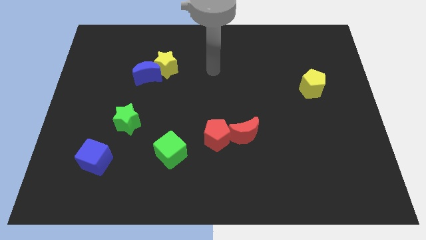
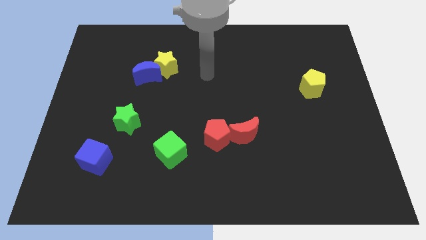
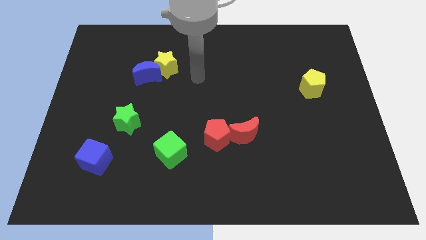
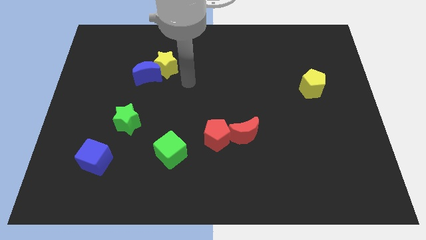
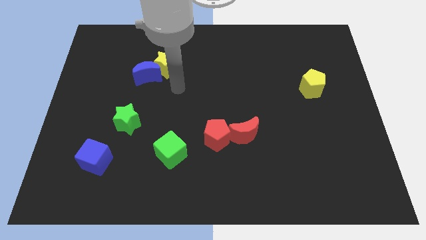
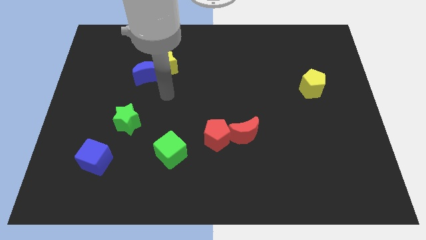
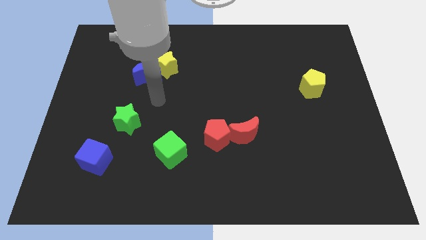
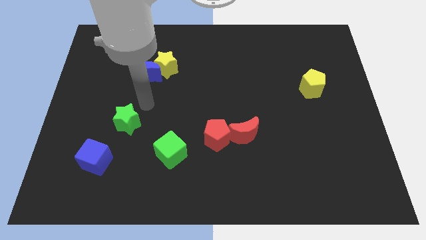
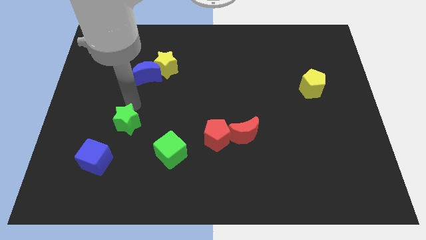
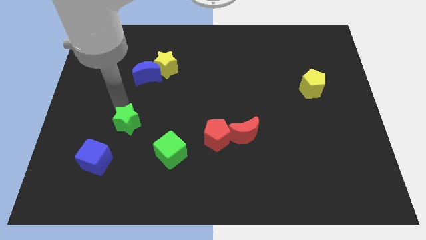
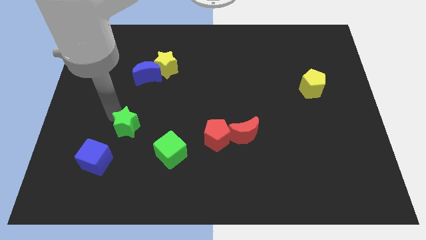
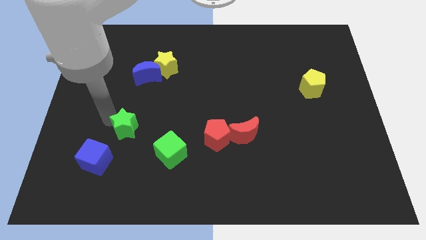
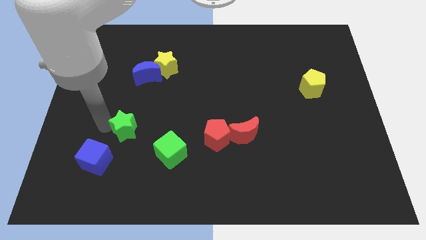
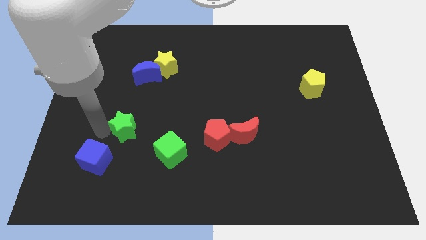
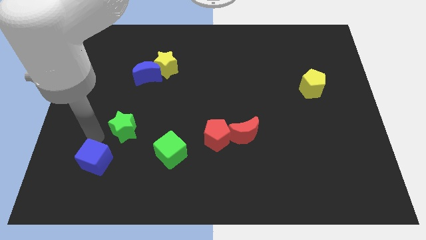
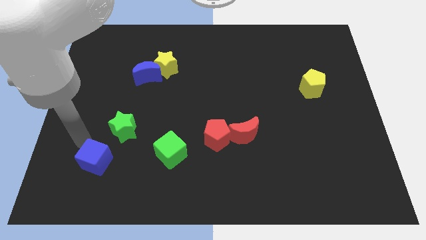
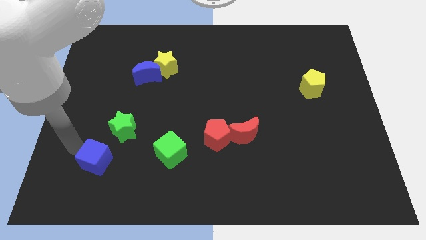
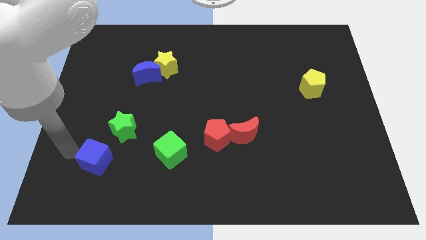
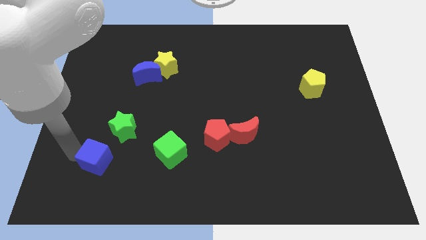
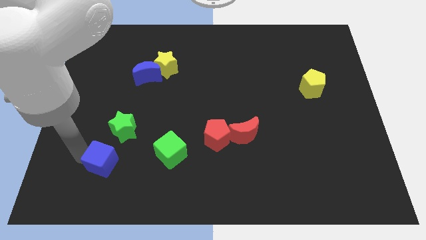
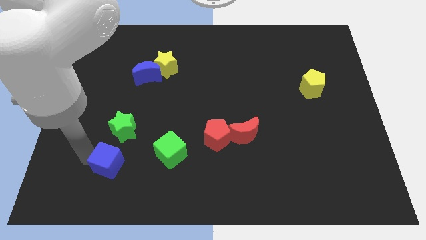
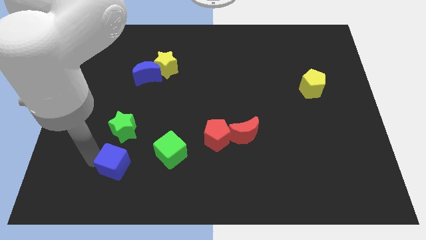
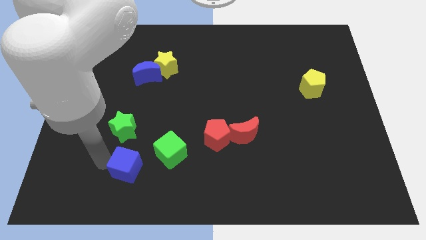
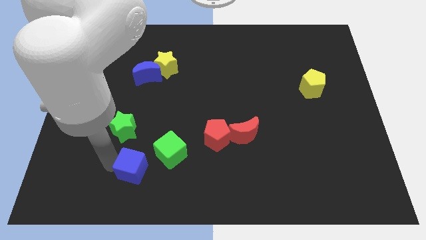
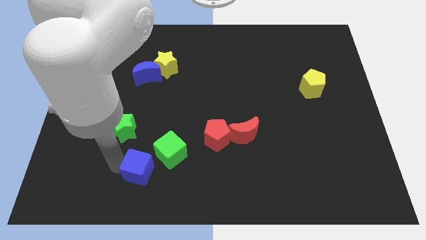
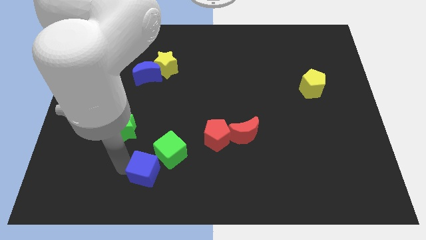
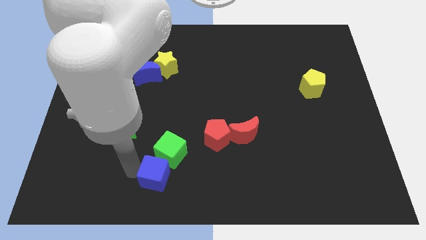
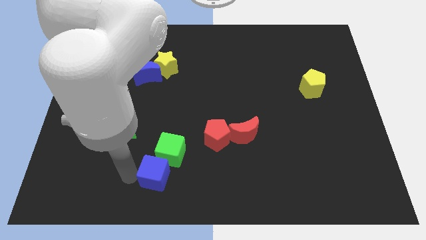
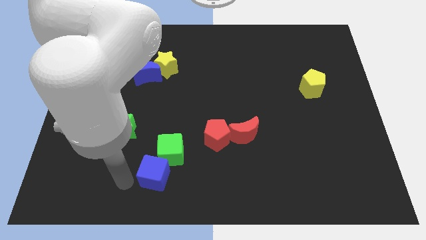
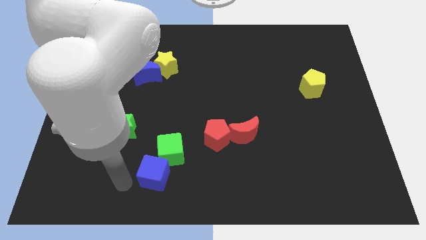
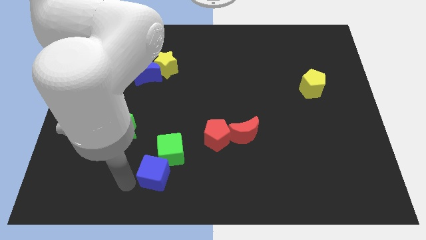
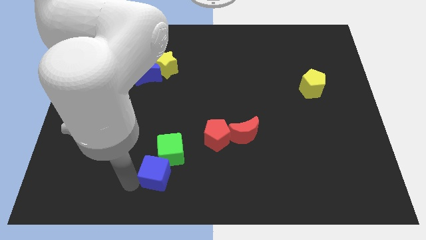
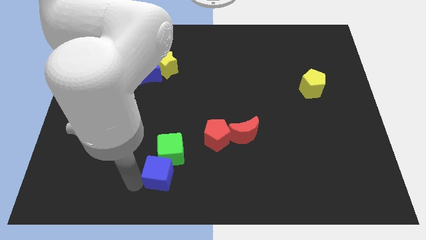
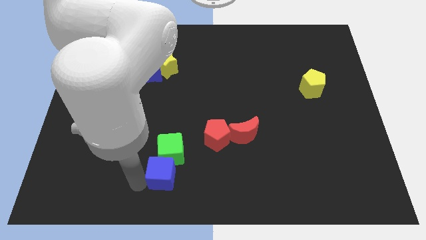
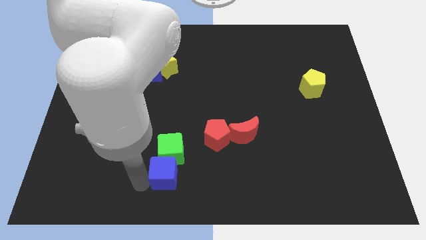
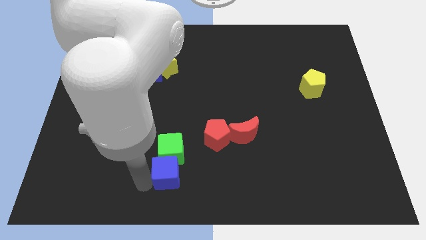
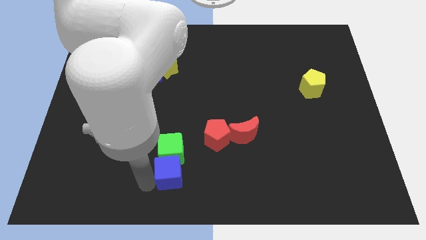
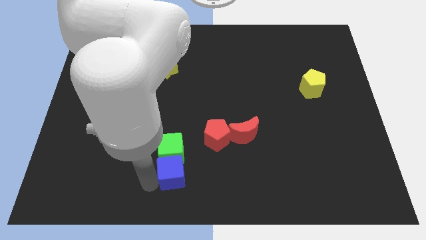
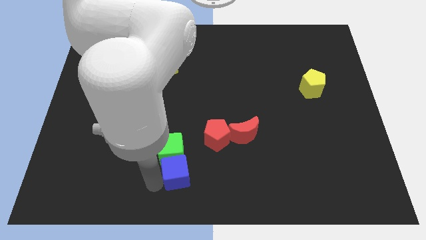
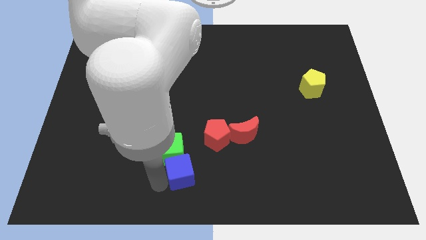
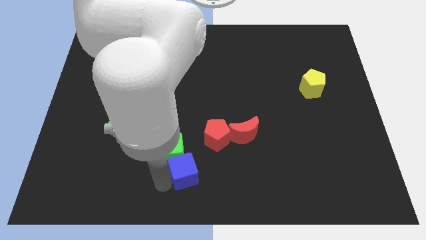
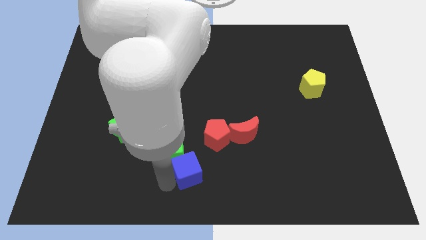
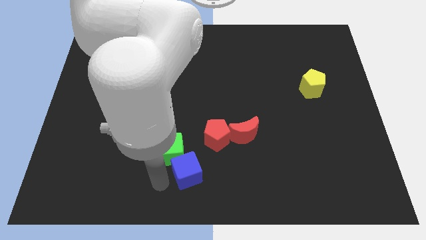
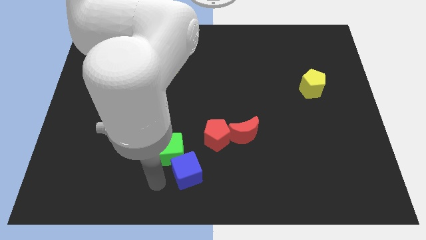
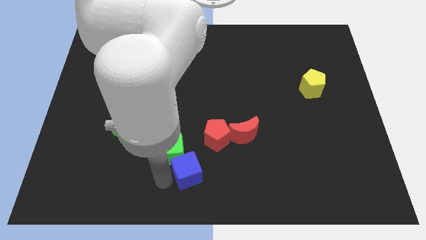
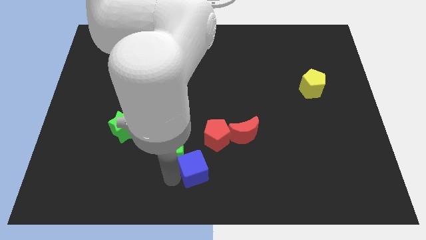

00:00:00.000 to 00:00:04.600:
move the blue cube to the right

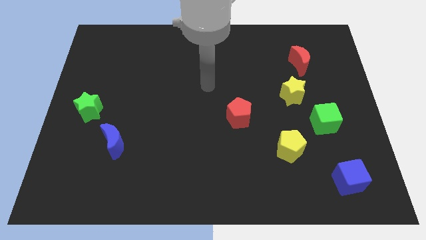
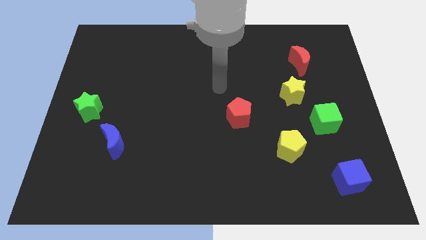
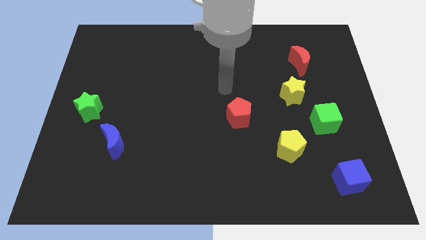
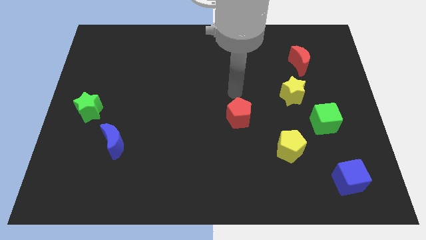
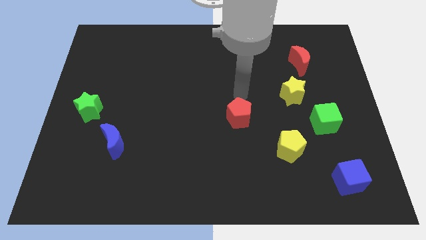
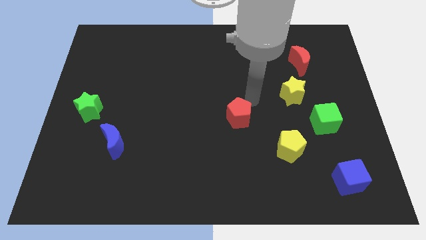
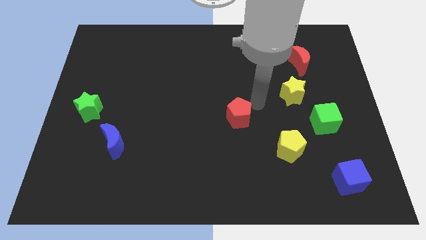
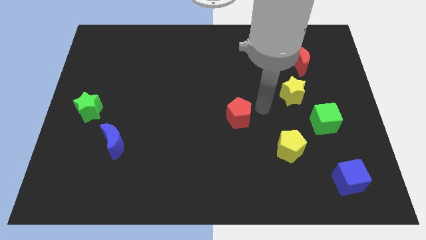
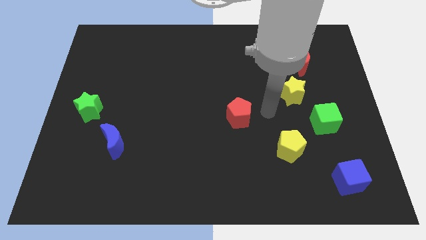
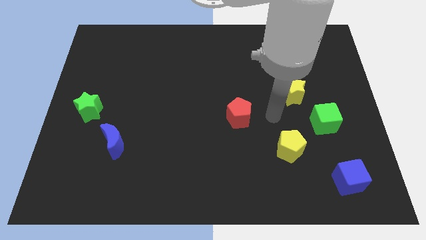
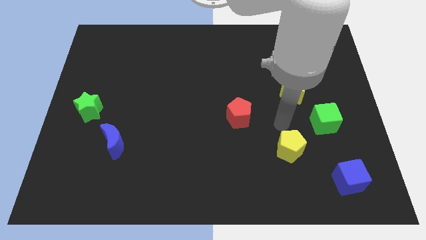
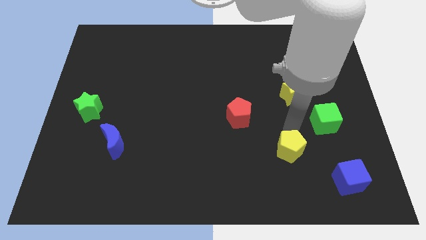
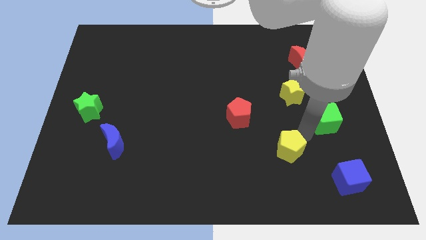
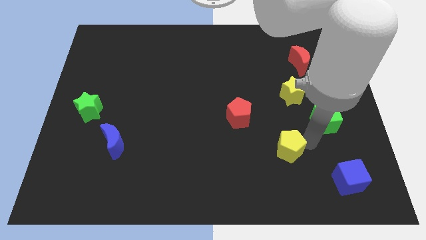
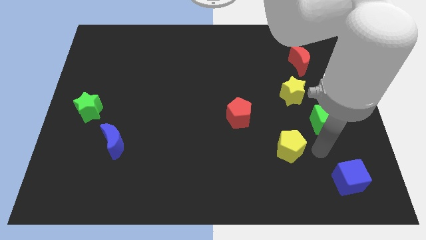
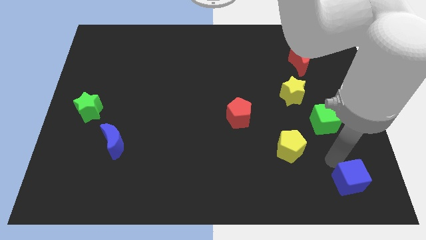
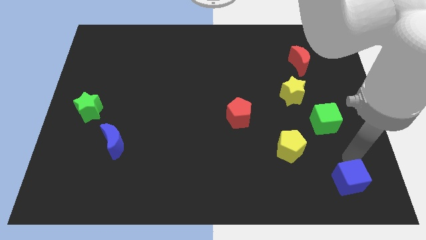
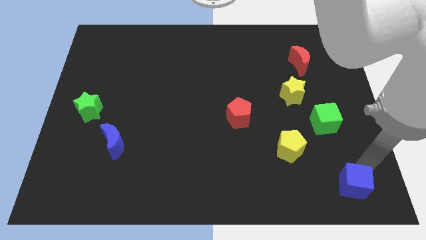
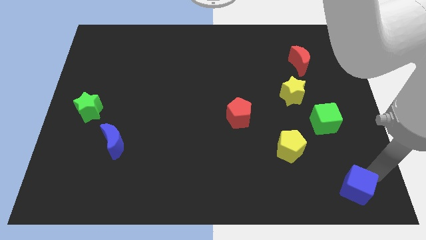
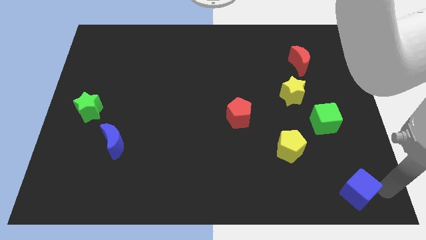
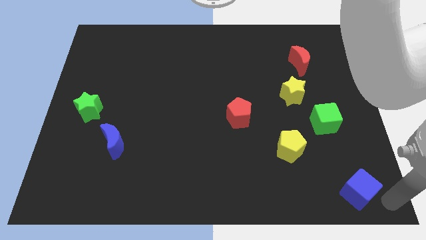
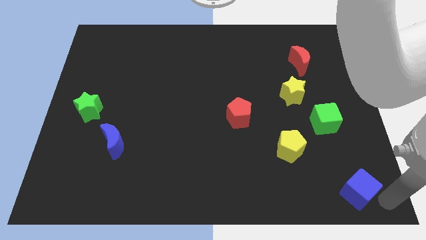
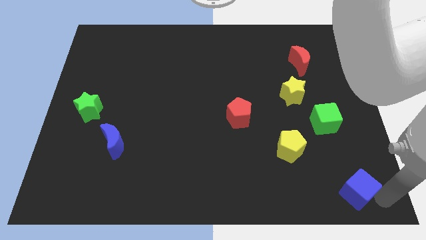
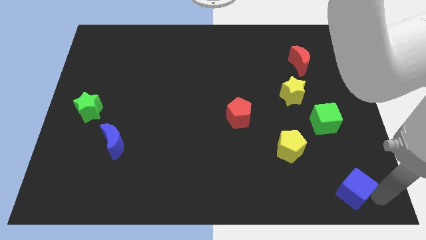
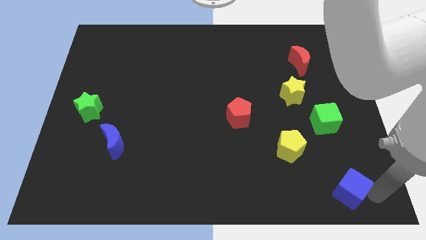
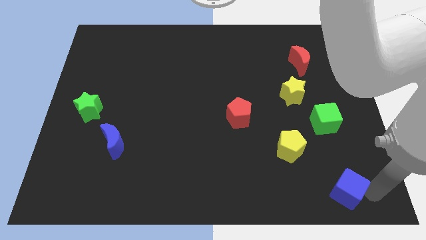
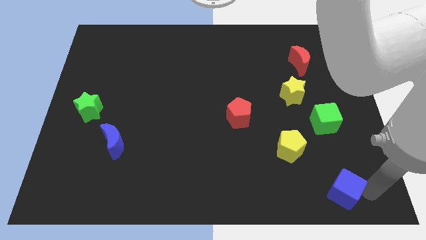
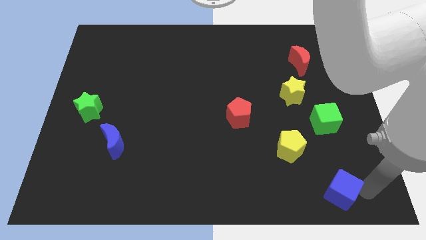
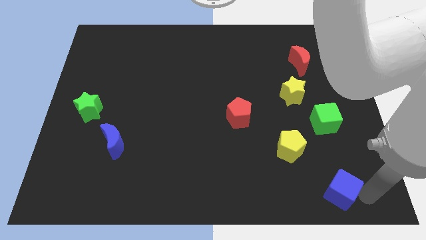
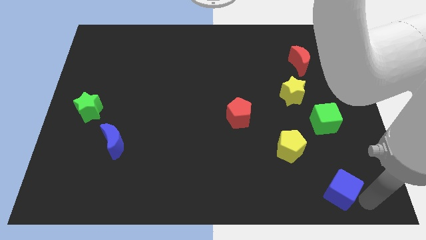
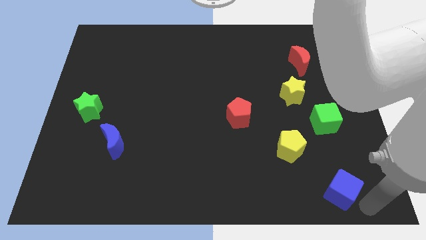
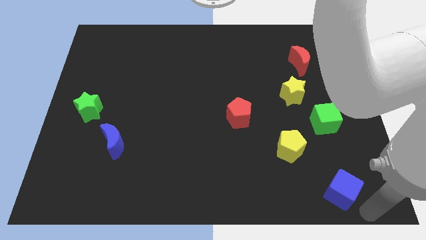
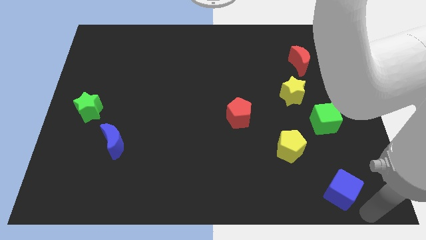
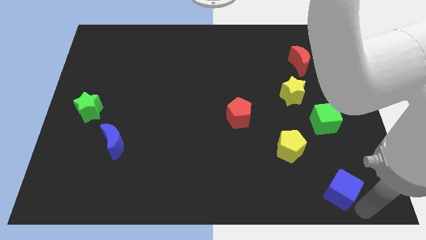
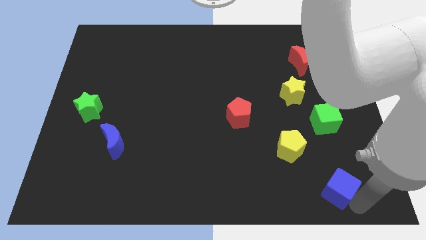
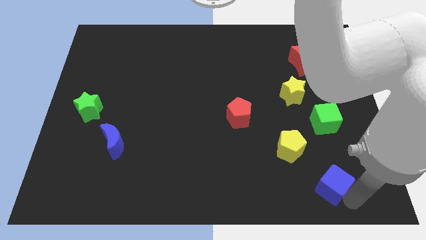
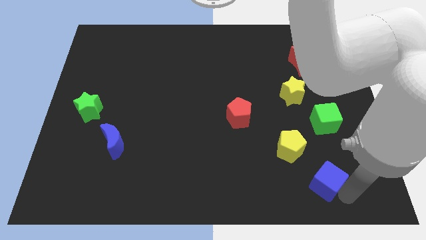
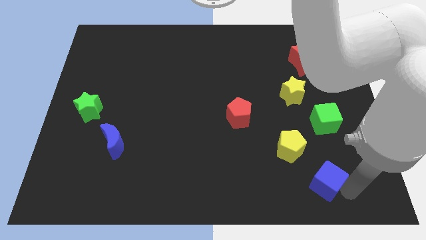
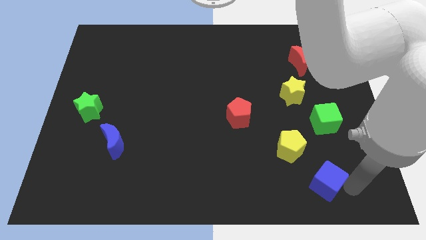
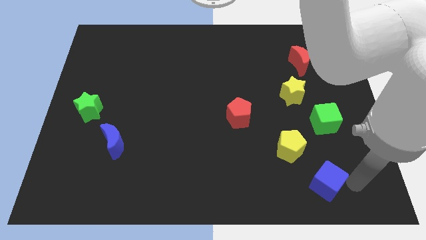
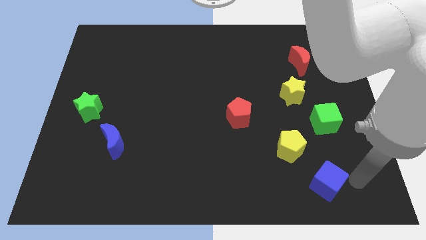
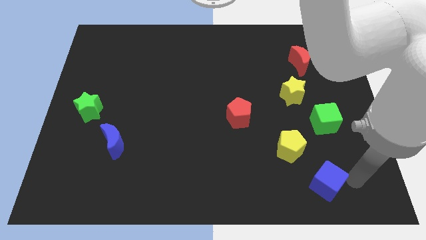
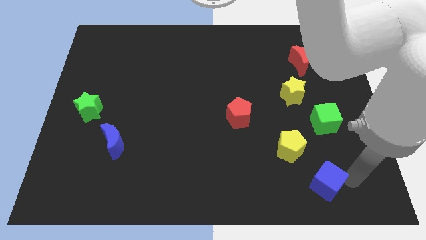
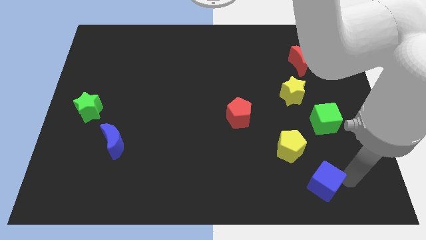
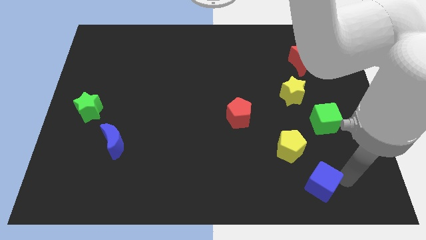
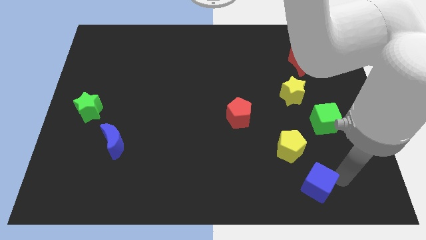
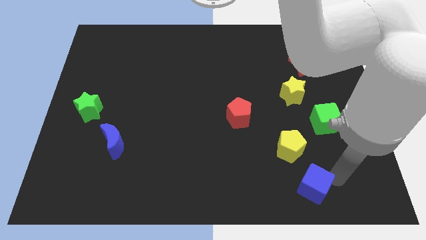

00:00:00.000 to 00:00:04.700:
push the blue cube a little to the left
